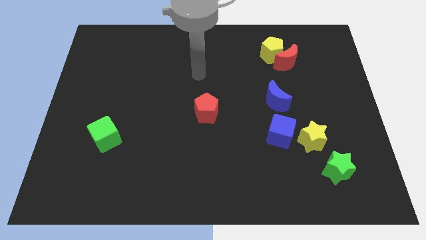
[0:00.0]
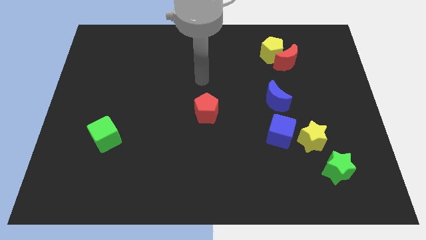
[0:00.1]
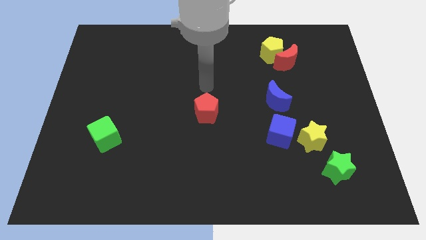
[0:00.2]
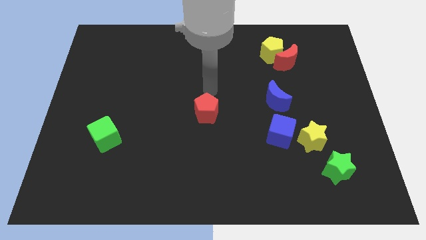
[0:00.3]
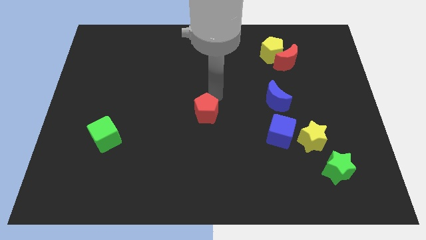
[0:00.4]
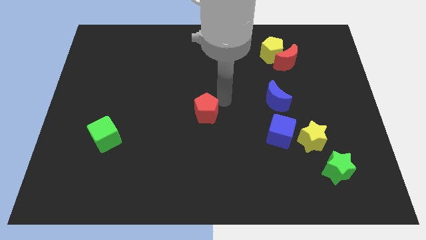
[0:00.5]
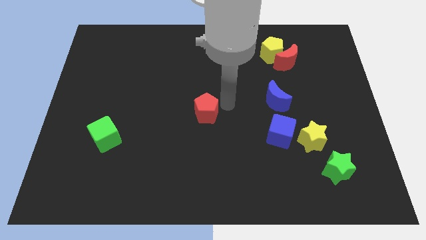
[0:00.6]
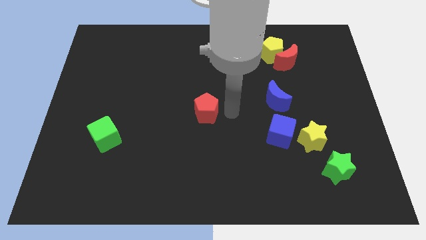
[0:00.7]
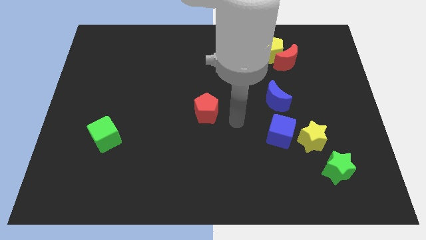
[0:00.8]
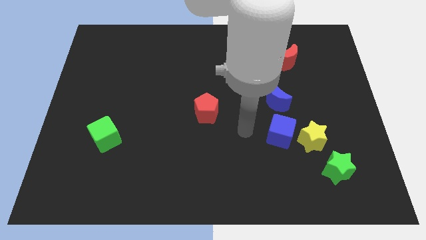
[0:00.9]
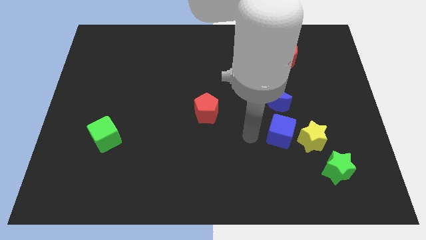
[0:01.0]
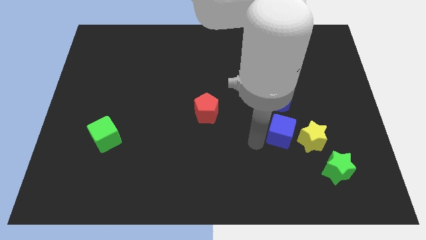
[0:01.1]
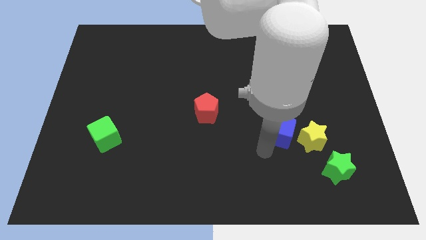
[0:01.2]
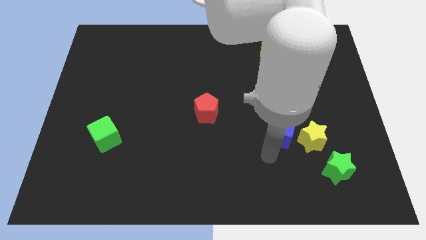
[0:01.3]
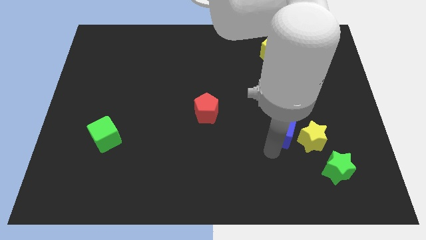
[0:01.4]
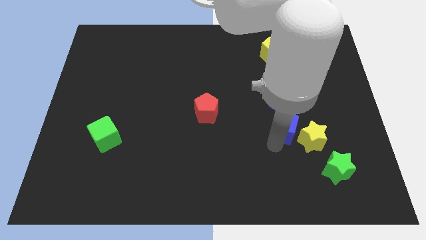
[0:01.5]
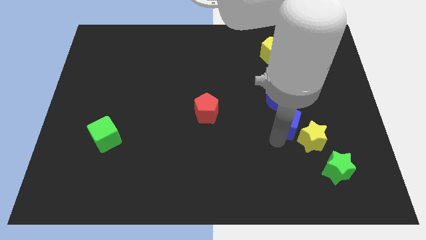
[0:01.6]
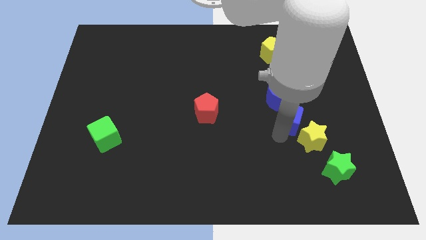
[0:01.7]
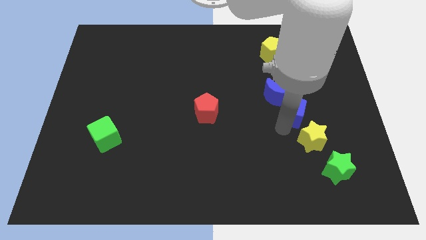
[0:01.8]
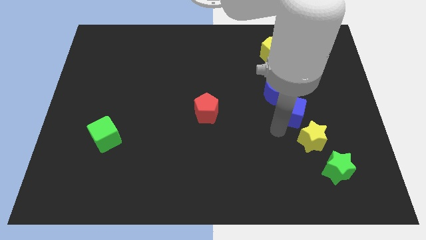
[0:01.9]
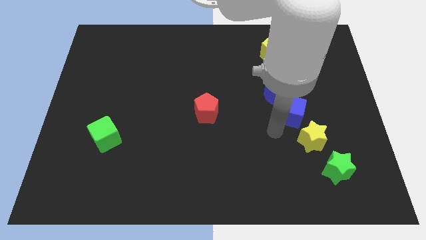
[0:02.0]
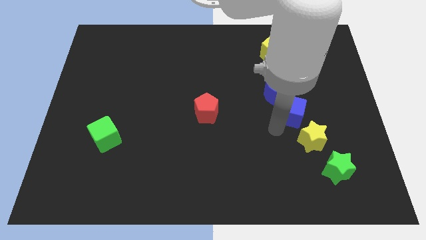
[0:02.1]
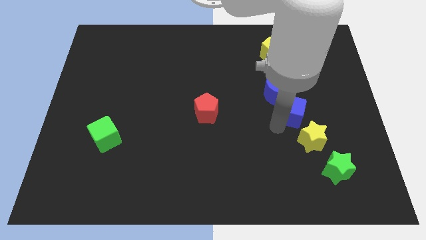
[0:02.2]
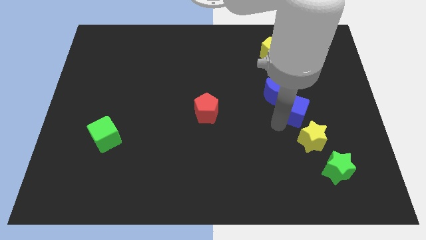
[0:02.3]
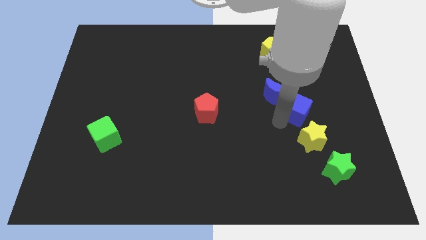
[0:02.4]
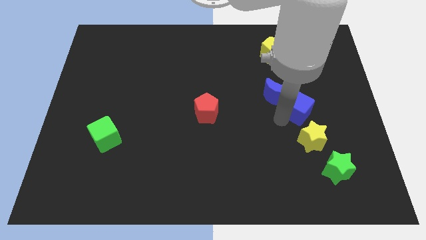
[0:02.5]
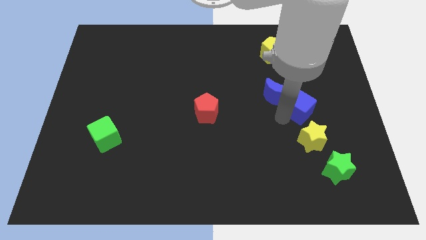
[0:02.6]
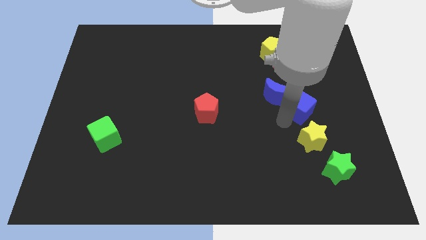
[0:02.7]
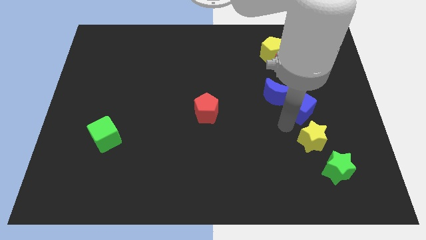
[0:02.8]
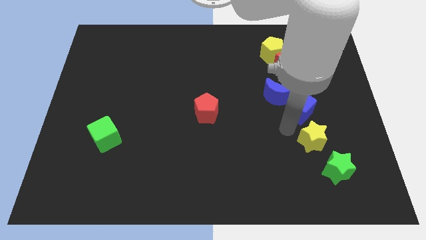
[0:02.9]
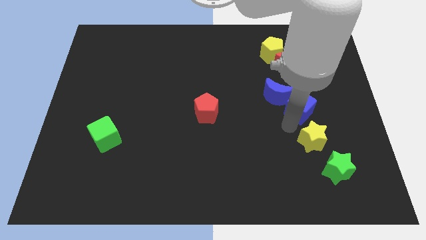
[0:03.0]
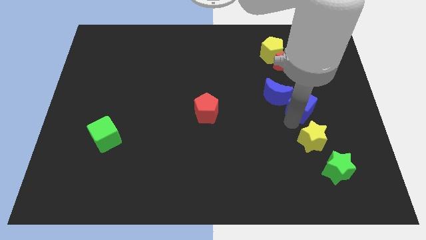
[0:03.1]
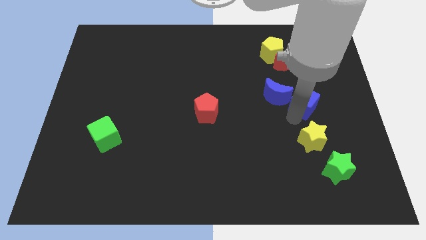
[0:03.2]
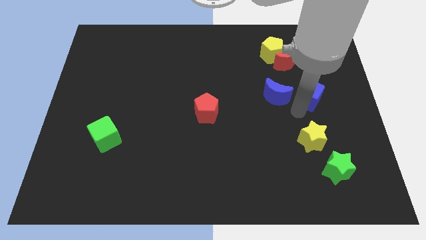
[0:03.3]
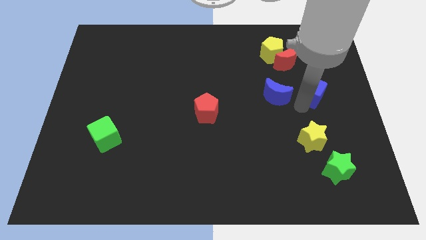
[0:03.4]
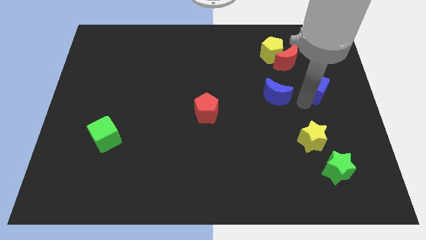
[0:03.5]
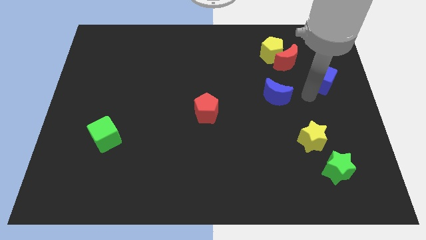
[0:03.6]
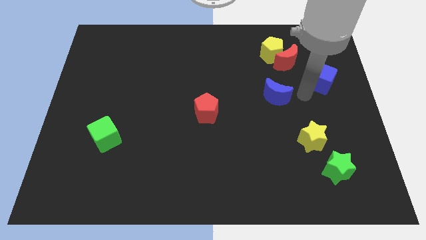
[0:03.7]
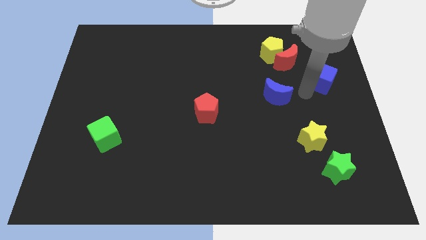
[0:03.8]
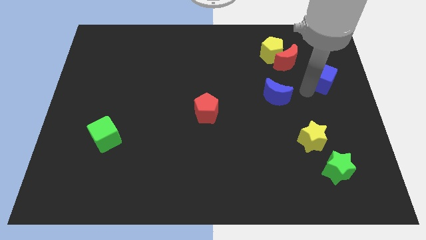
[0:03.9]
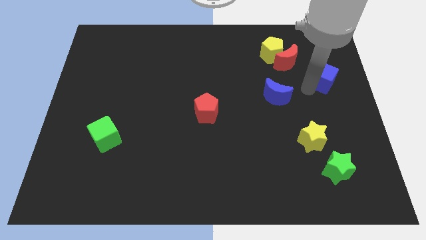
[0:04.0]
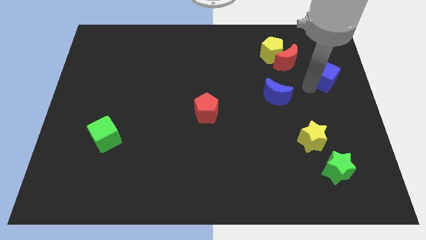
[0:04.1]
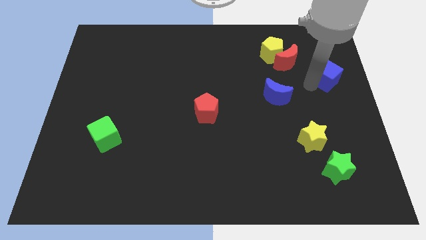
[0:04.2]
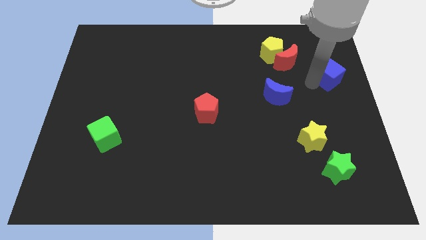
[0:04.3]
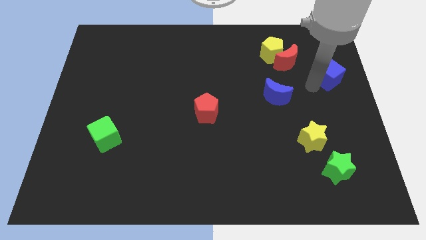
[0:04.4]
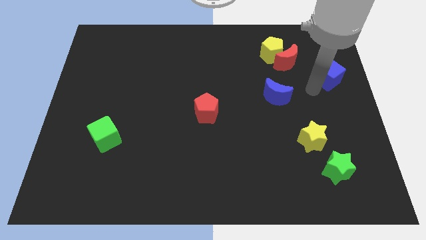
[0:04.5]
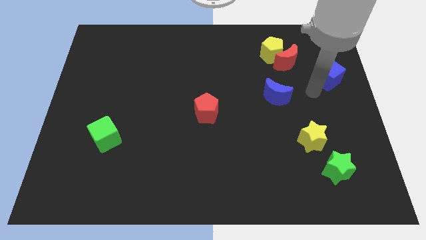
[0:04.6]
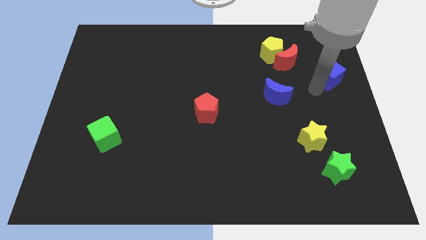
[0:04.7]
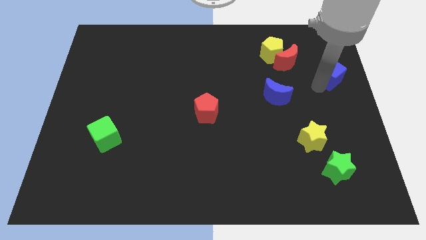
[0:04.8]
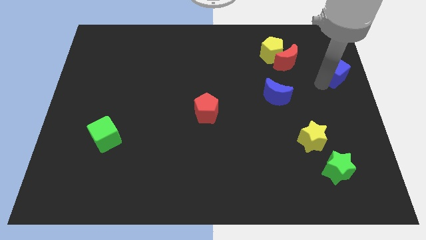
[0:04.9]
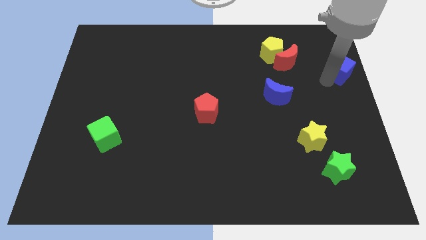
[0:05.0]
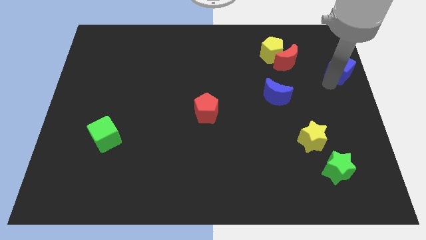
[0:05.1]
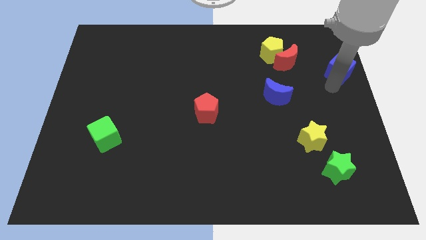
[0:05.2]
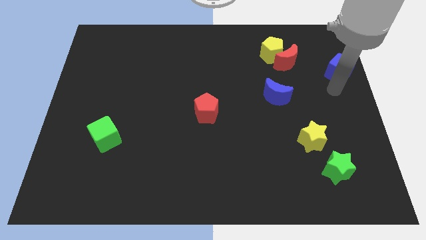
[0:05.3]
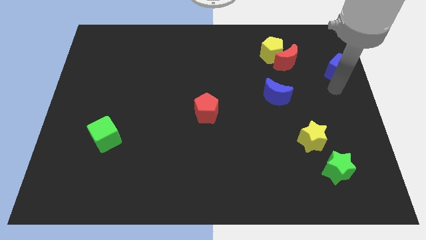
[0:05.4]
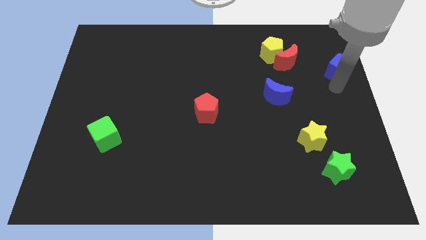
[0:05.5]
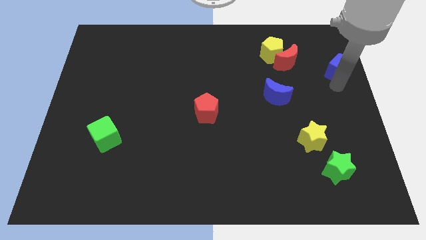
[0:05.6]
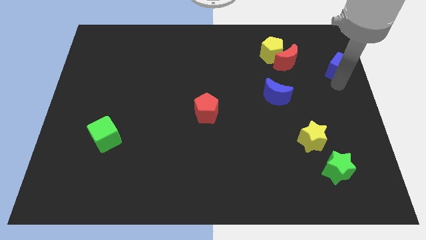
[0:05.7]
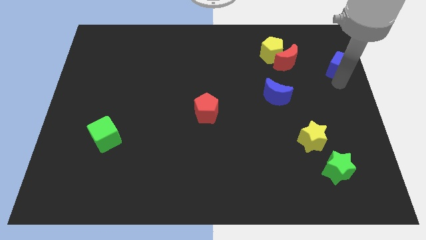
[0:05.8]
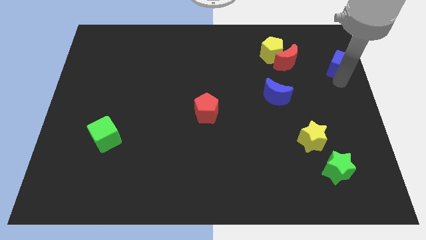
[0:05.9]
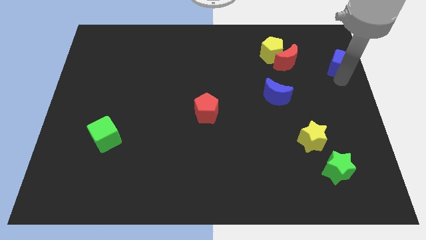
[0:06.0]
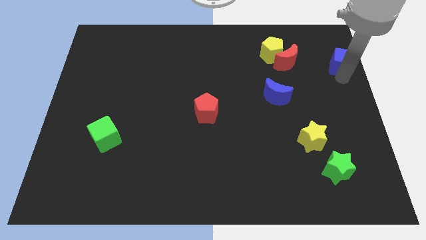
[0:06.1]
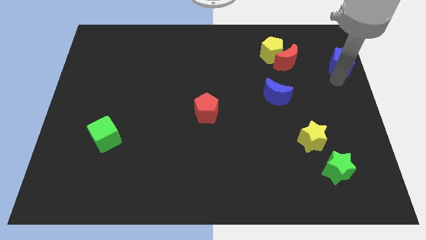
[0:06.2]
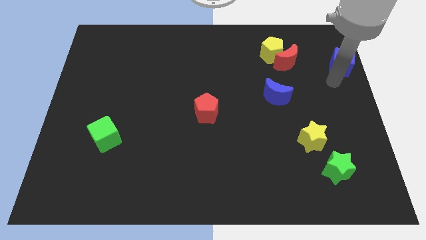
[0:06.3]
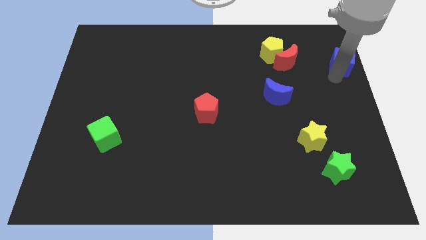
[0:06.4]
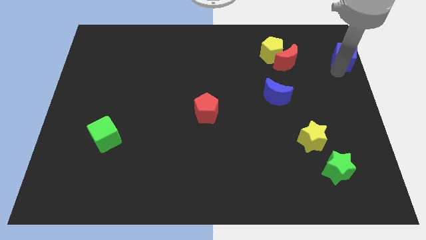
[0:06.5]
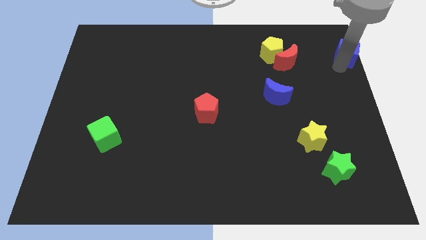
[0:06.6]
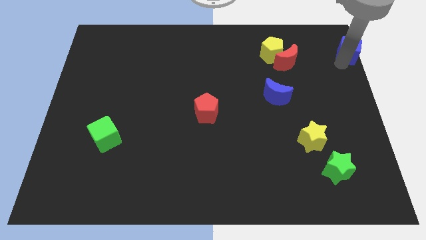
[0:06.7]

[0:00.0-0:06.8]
put the blue cube to the upper right corner
